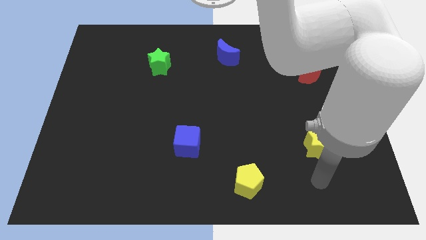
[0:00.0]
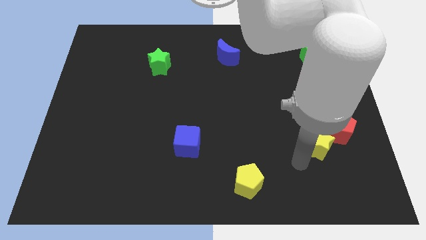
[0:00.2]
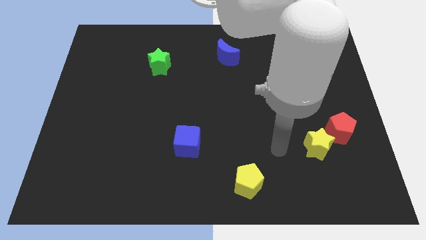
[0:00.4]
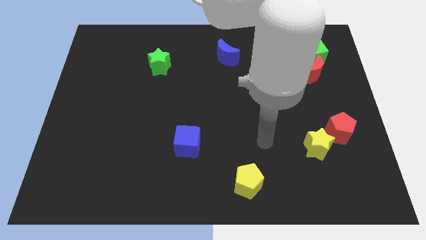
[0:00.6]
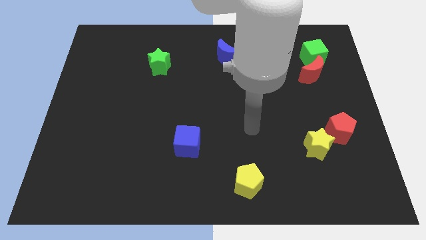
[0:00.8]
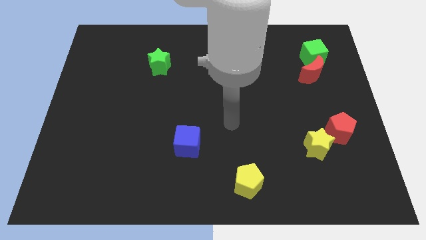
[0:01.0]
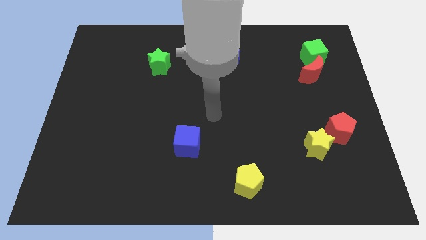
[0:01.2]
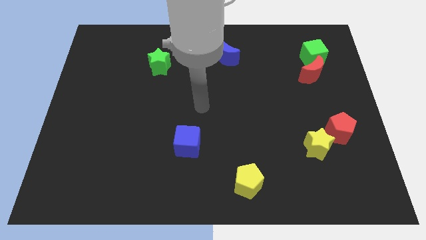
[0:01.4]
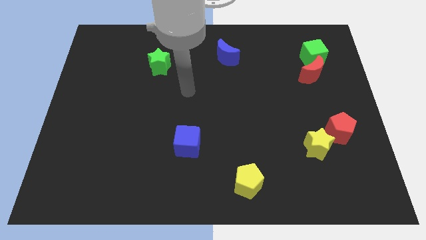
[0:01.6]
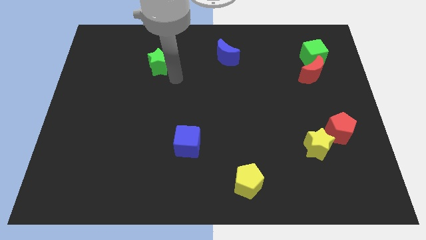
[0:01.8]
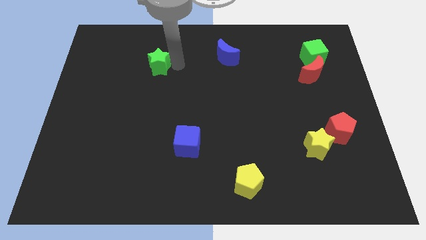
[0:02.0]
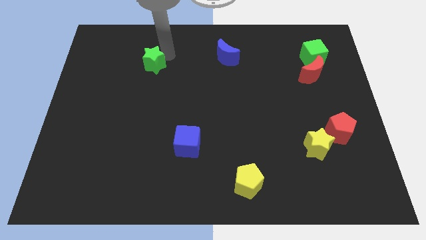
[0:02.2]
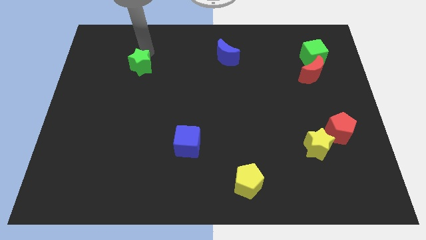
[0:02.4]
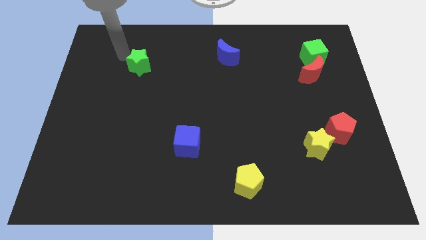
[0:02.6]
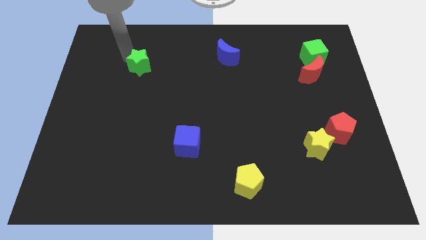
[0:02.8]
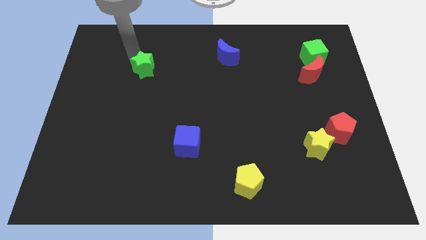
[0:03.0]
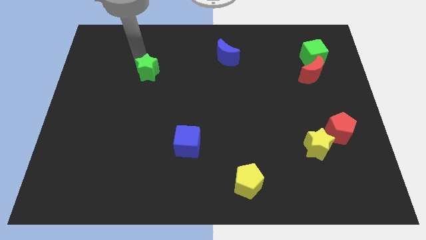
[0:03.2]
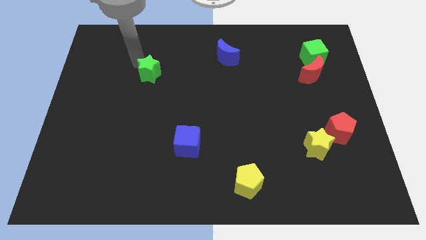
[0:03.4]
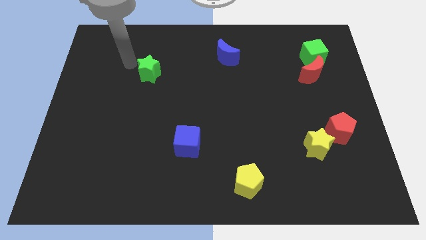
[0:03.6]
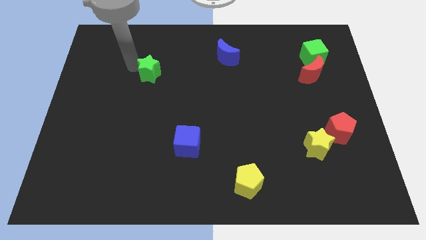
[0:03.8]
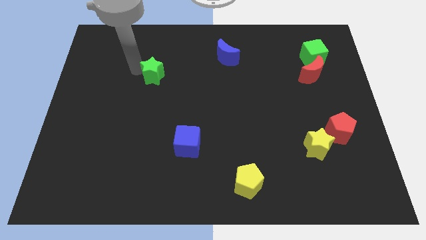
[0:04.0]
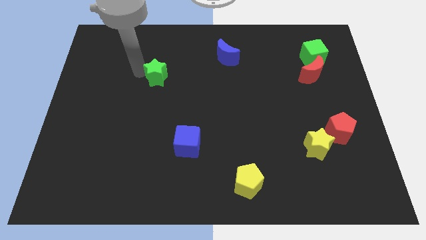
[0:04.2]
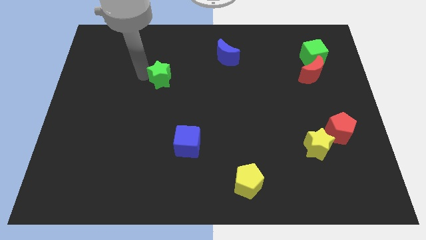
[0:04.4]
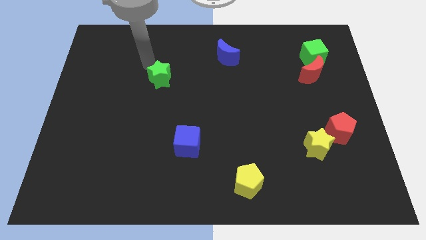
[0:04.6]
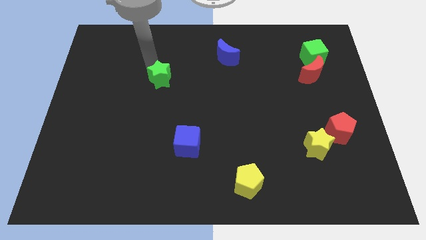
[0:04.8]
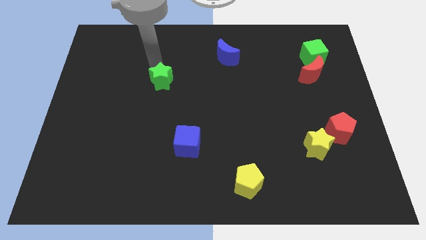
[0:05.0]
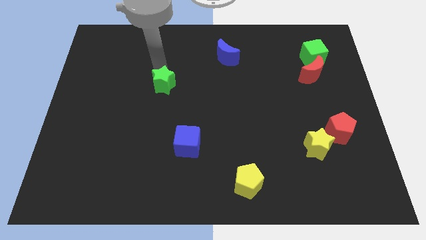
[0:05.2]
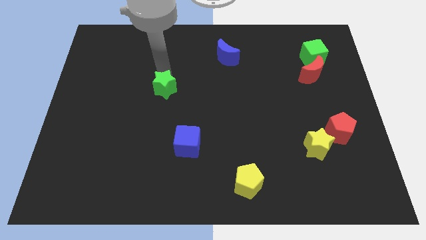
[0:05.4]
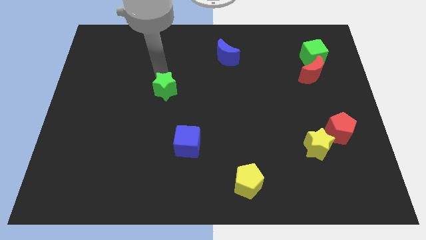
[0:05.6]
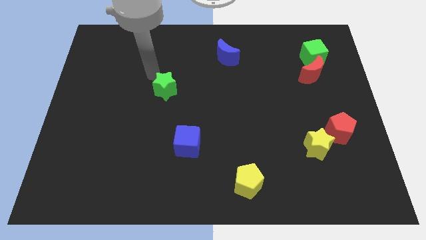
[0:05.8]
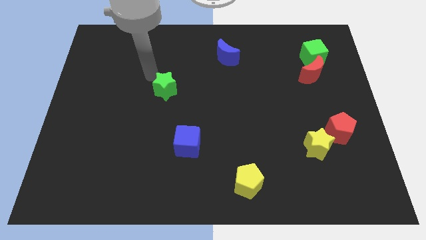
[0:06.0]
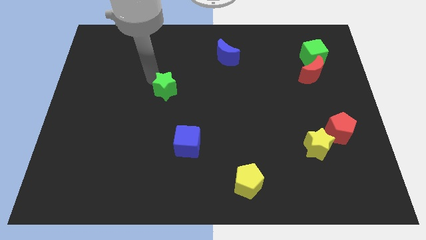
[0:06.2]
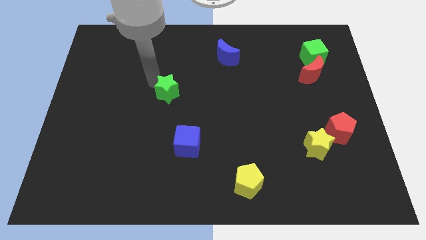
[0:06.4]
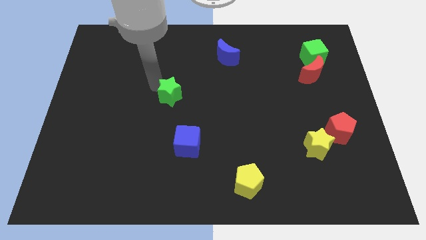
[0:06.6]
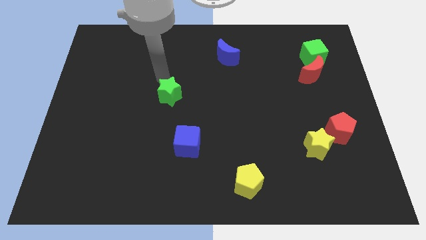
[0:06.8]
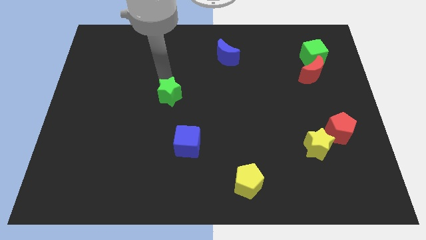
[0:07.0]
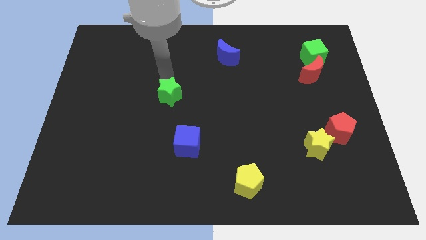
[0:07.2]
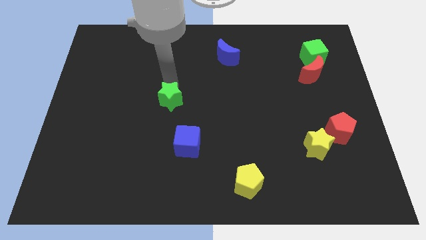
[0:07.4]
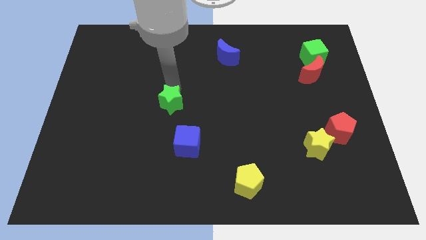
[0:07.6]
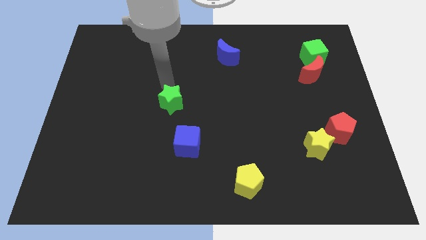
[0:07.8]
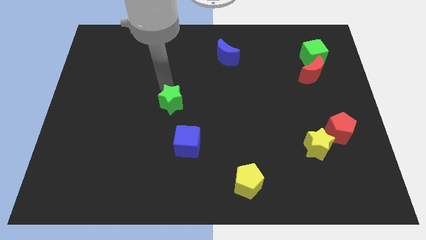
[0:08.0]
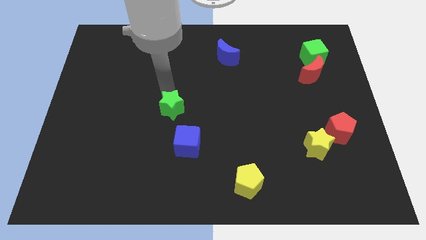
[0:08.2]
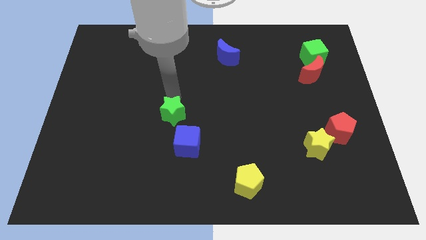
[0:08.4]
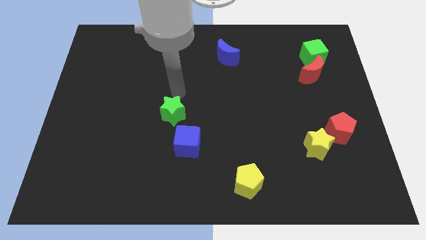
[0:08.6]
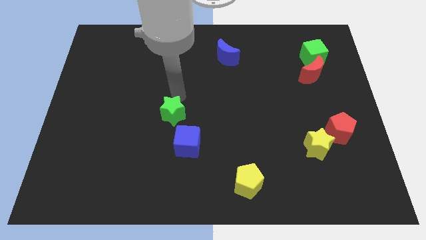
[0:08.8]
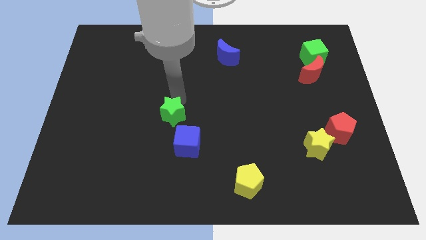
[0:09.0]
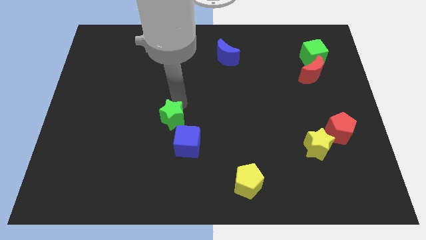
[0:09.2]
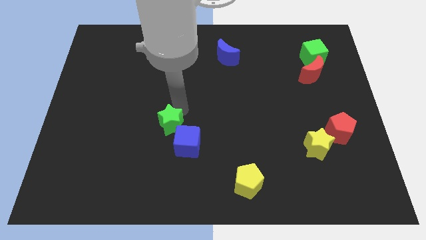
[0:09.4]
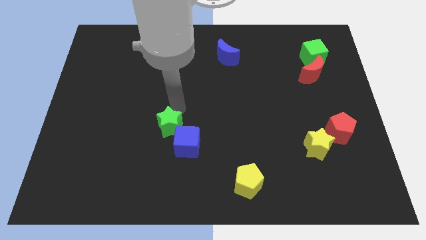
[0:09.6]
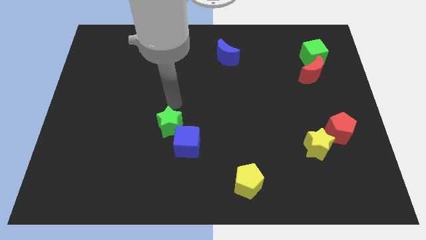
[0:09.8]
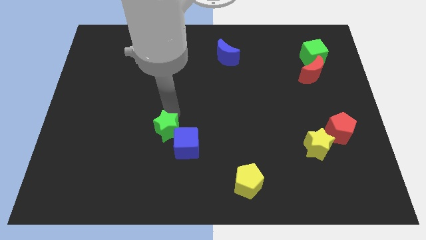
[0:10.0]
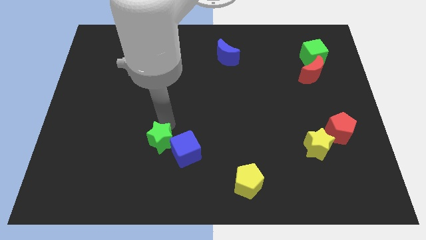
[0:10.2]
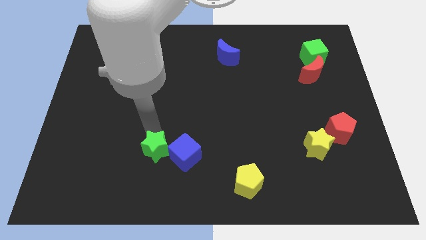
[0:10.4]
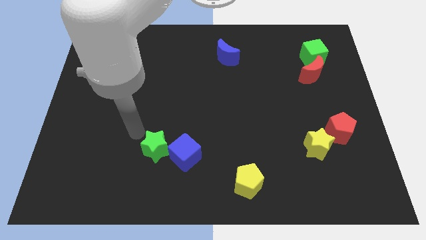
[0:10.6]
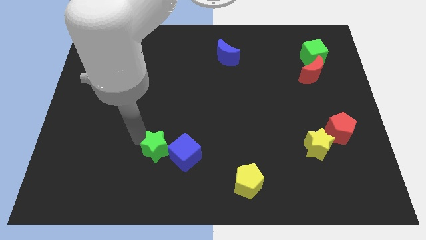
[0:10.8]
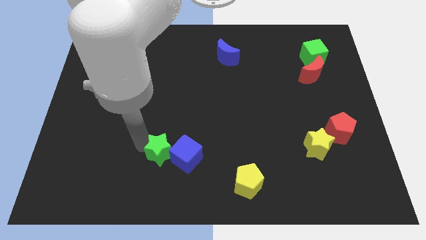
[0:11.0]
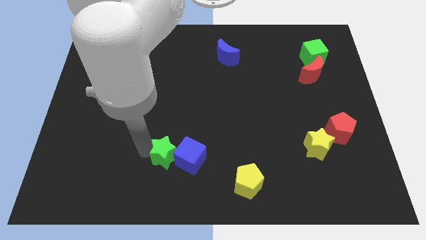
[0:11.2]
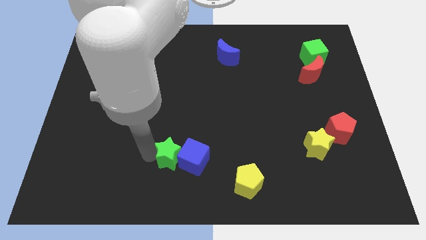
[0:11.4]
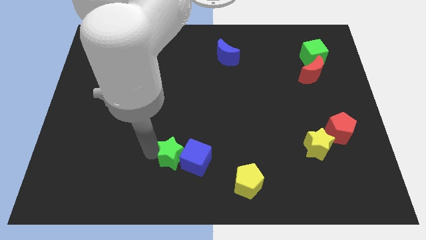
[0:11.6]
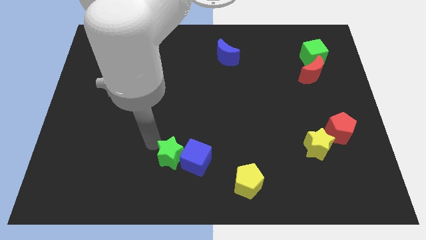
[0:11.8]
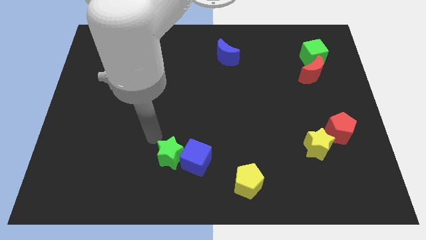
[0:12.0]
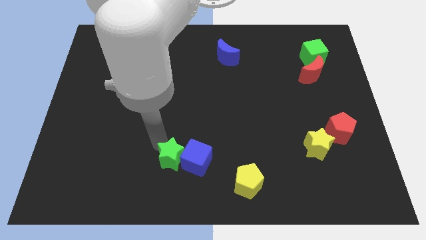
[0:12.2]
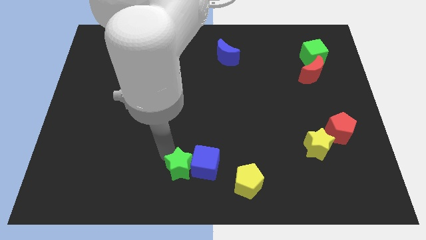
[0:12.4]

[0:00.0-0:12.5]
slide the green star to the left of the yellow pentagon

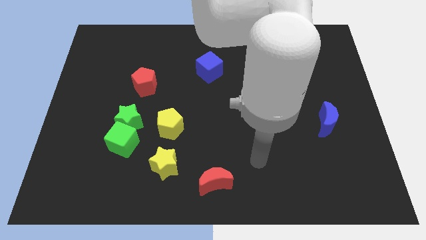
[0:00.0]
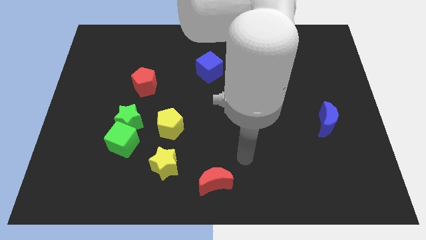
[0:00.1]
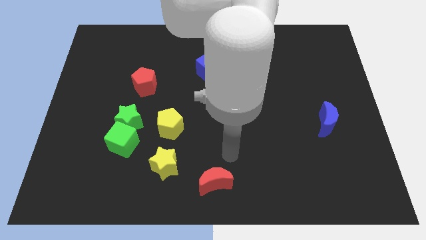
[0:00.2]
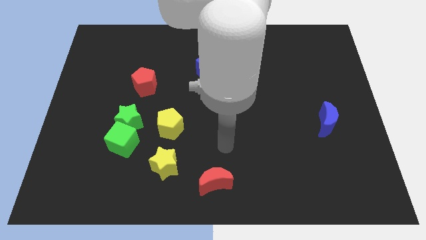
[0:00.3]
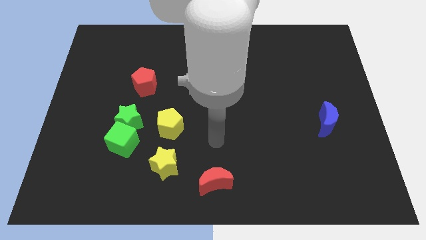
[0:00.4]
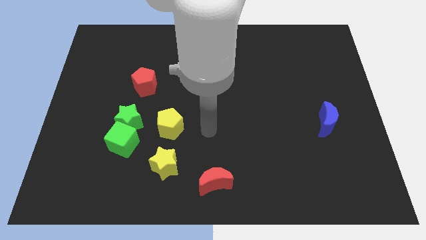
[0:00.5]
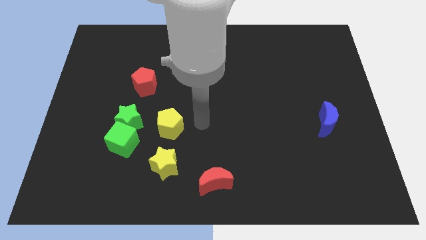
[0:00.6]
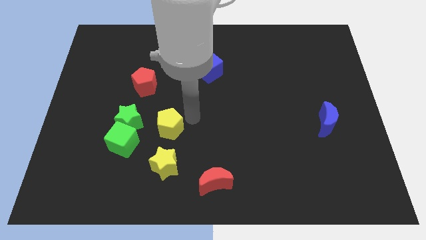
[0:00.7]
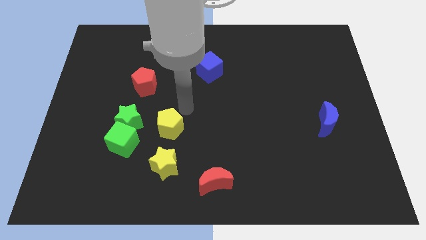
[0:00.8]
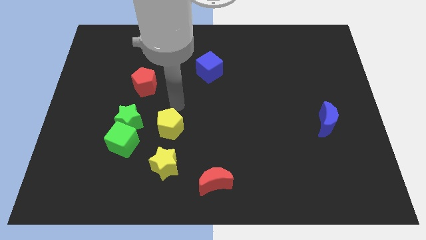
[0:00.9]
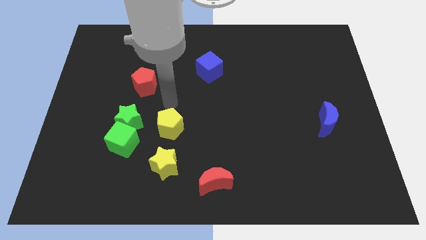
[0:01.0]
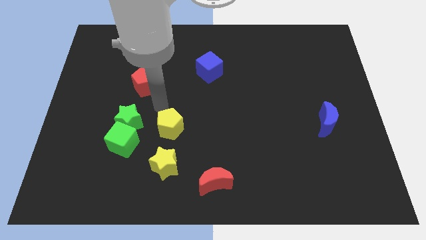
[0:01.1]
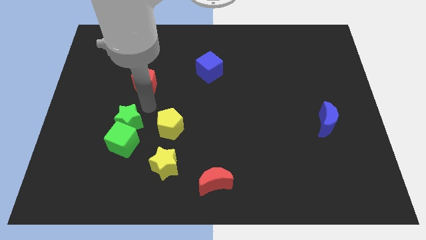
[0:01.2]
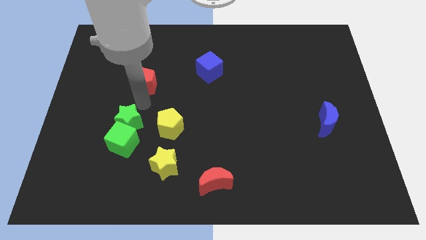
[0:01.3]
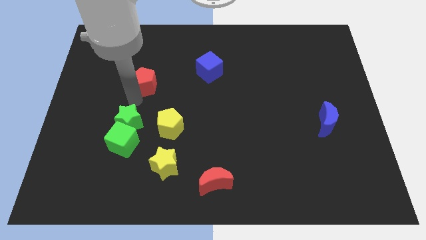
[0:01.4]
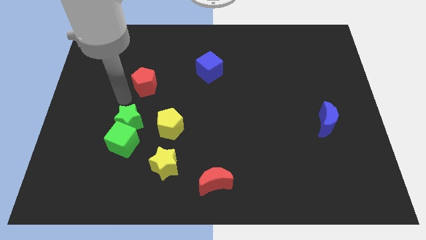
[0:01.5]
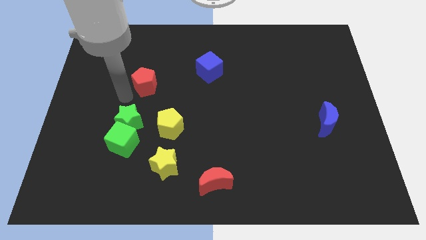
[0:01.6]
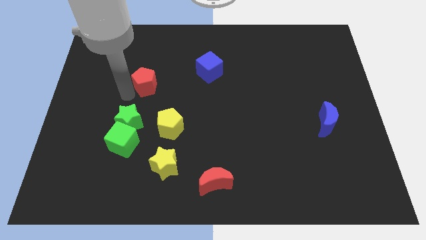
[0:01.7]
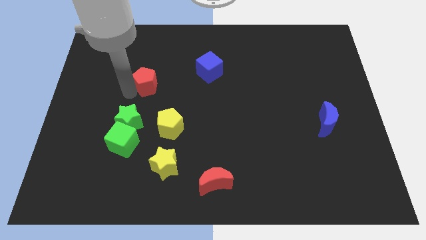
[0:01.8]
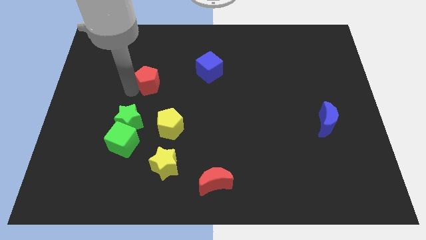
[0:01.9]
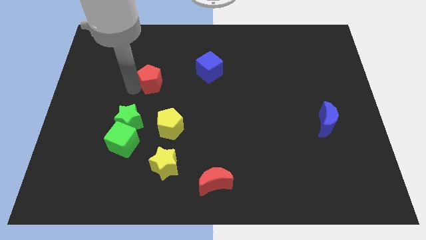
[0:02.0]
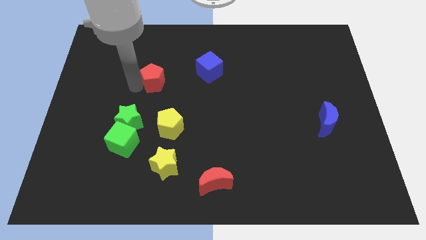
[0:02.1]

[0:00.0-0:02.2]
put the red pentagon just left of the blue cube
